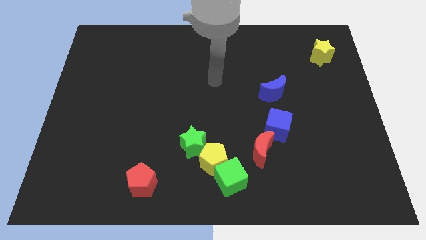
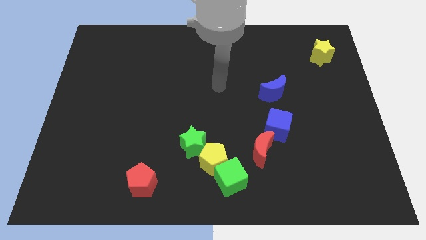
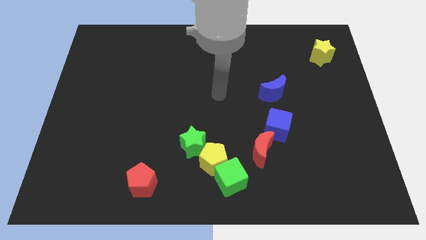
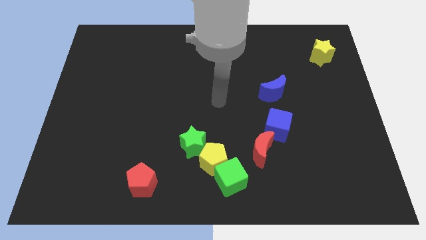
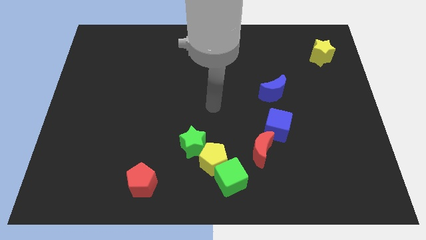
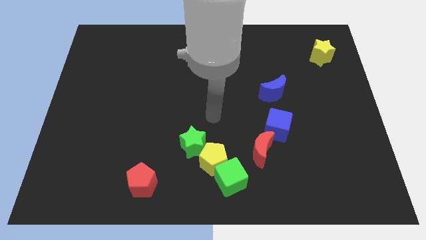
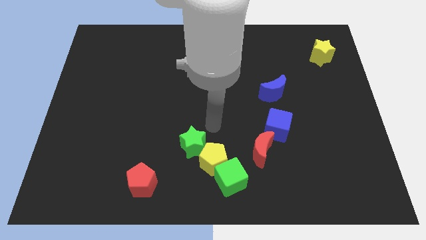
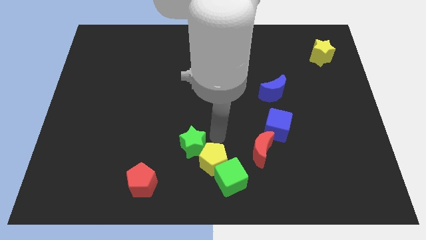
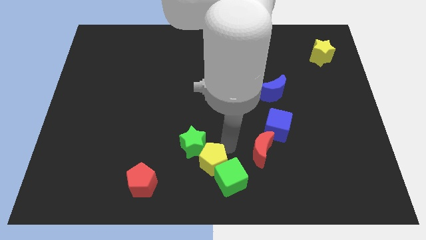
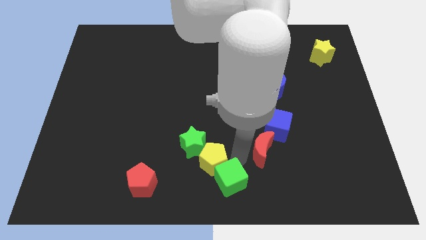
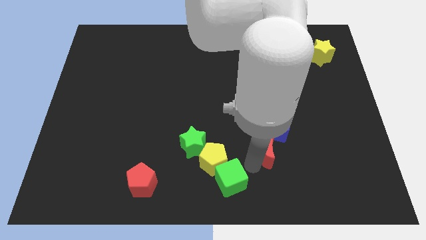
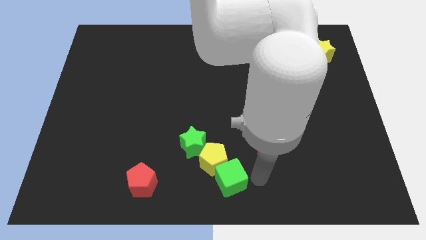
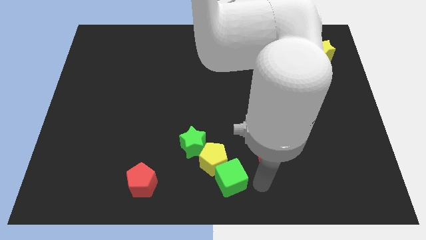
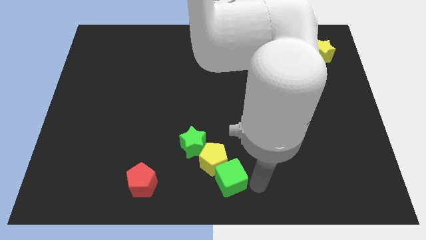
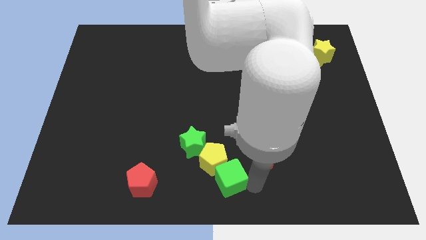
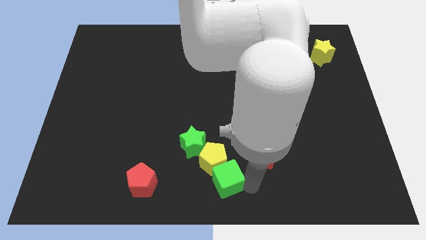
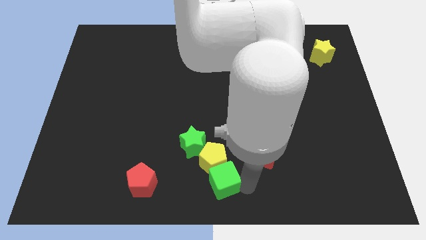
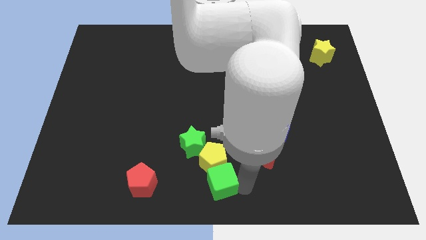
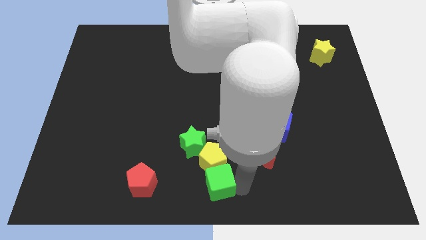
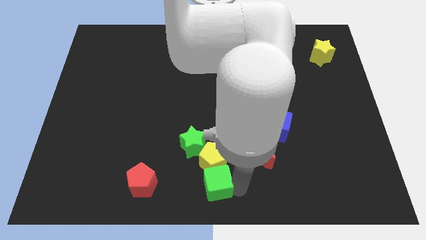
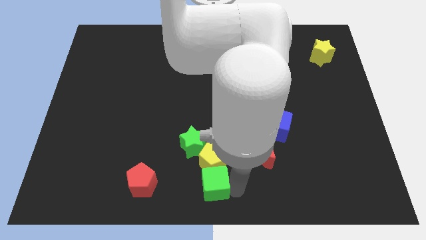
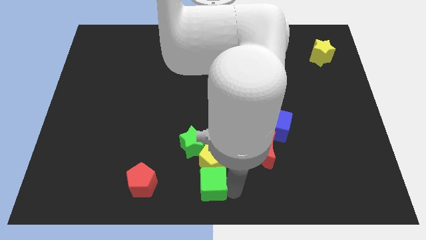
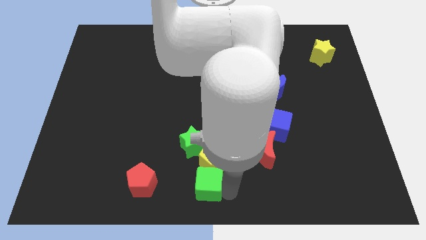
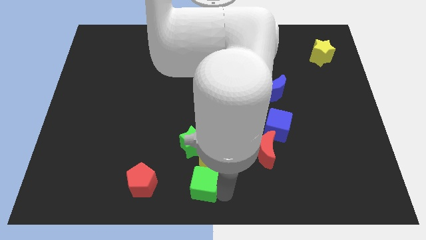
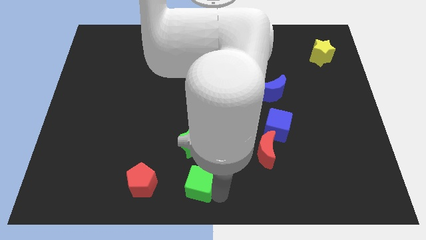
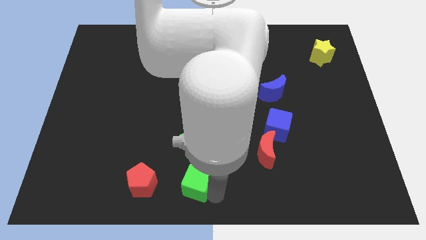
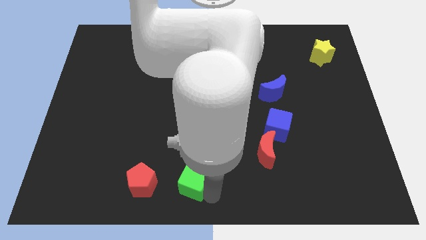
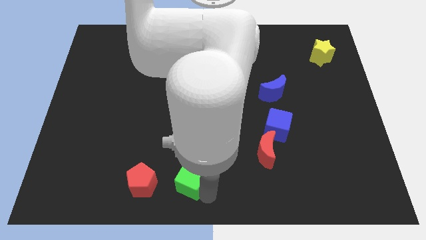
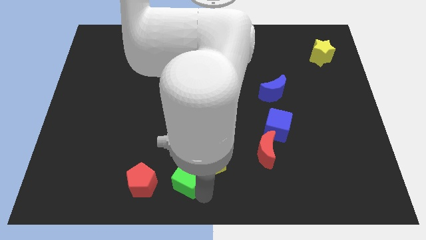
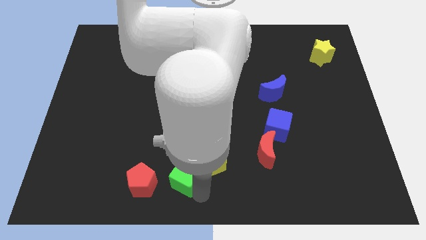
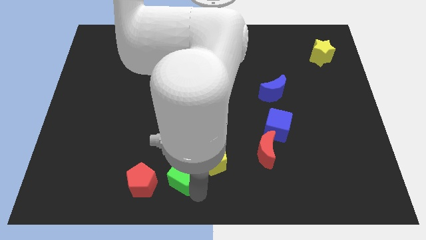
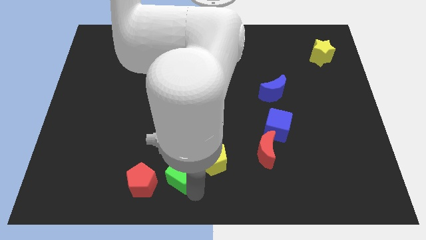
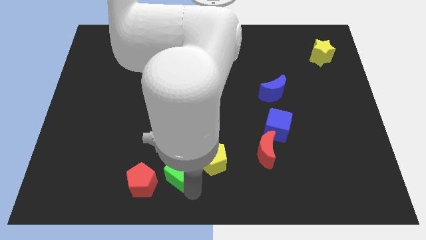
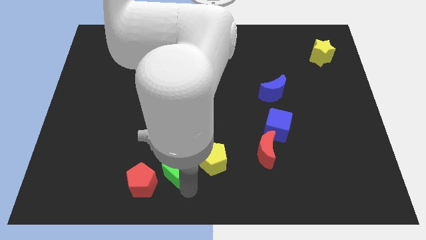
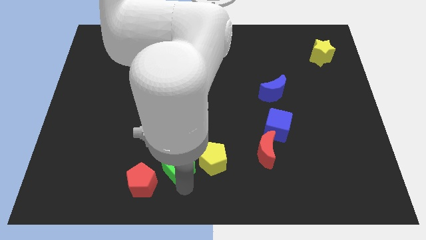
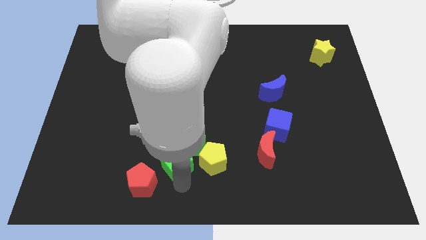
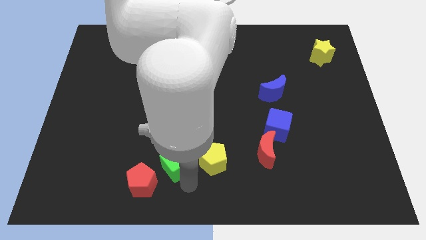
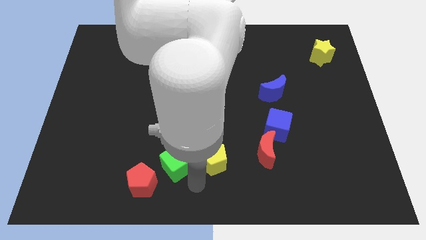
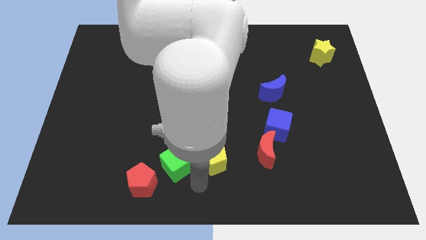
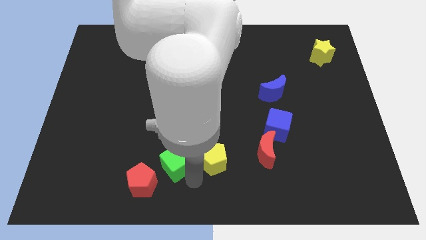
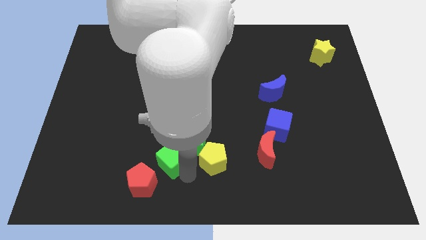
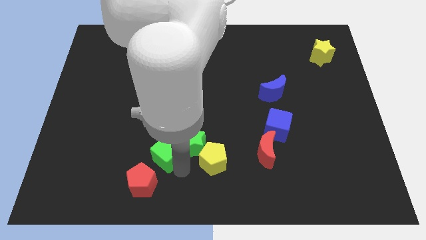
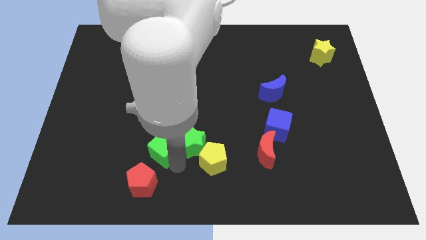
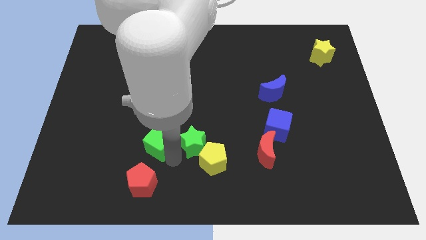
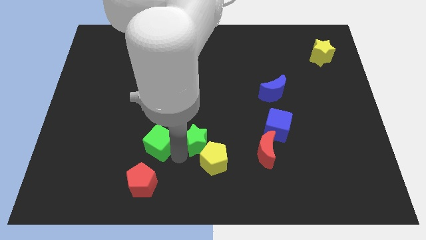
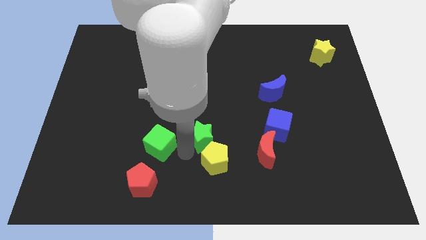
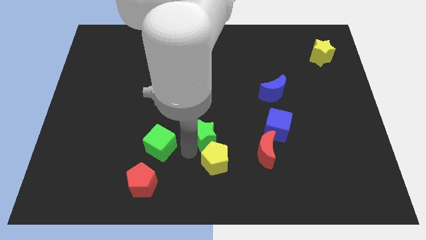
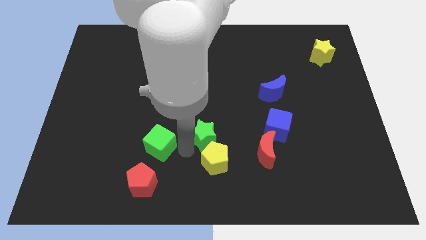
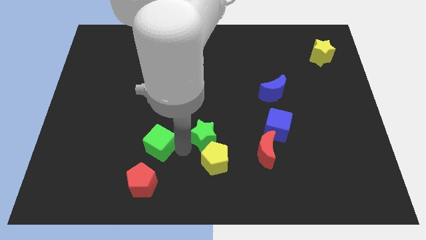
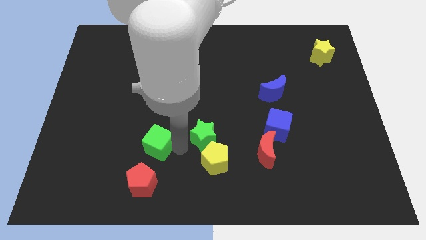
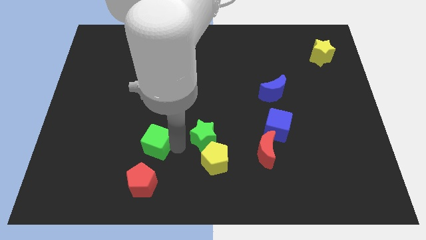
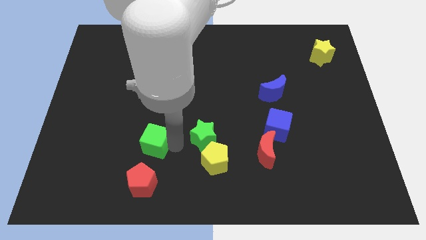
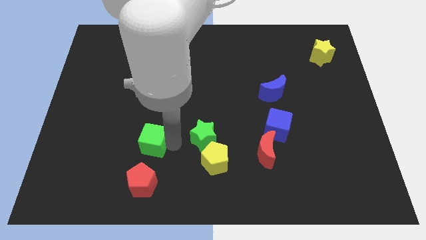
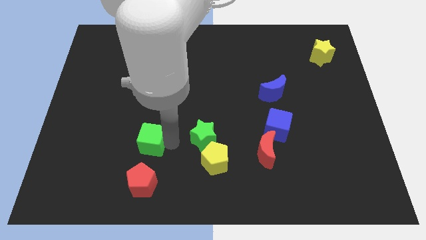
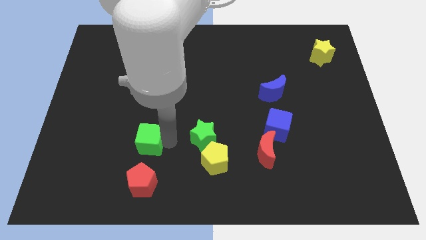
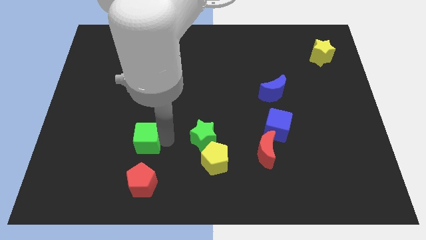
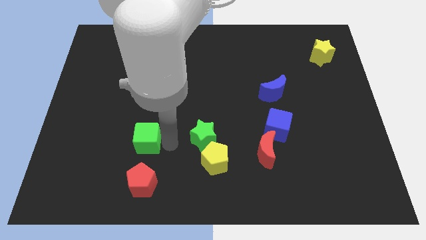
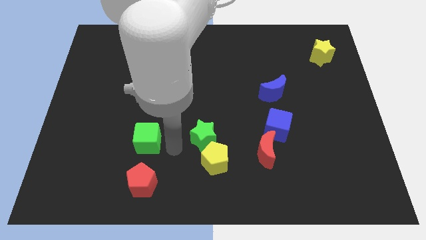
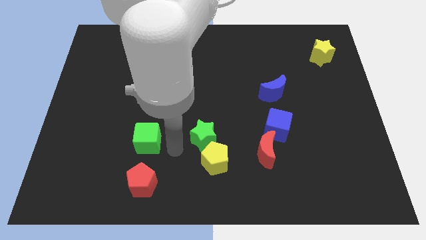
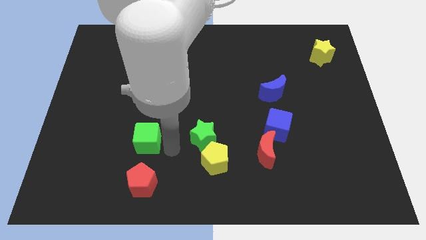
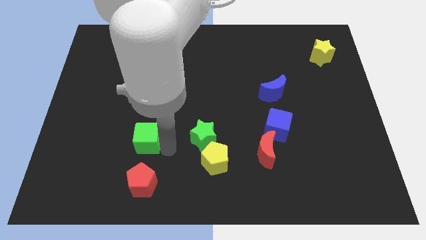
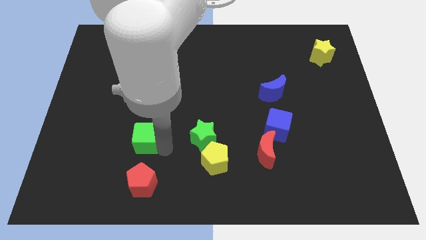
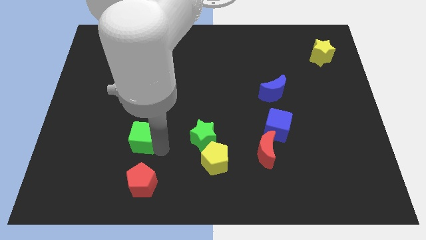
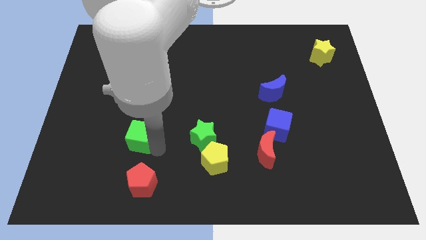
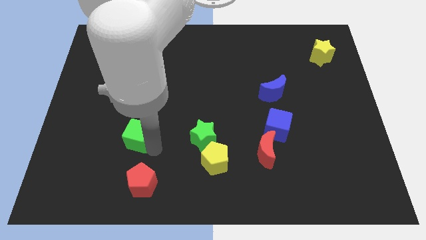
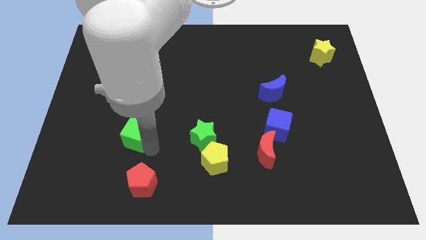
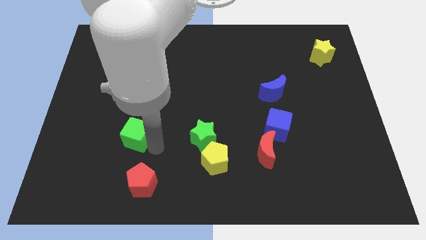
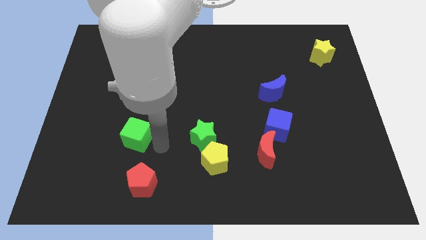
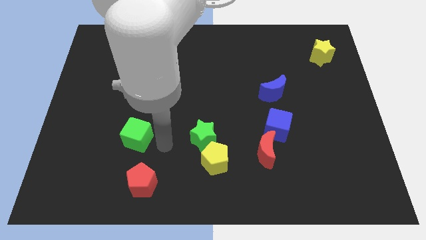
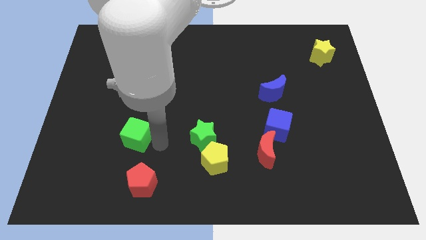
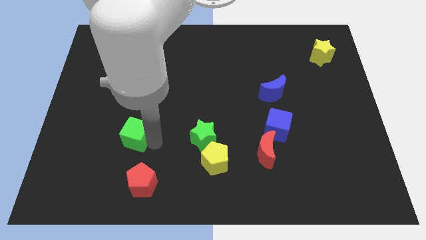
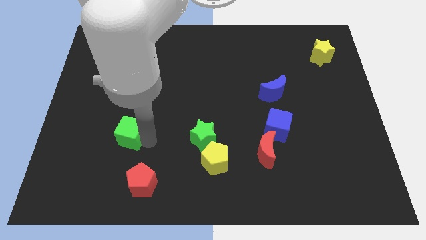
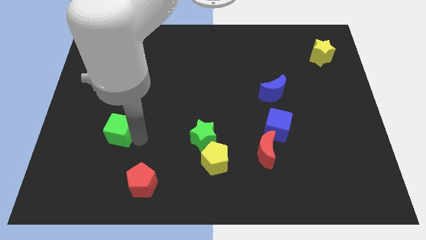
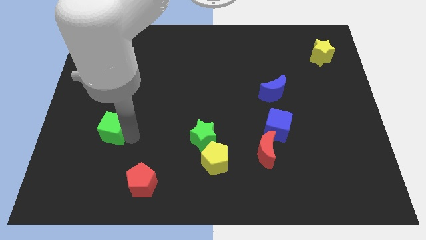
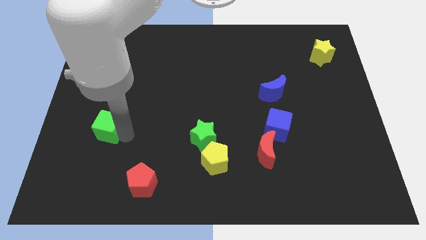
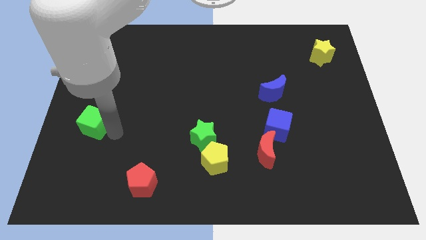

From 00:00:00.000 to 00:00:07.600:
slide the green cube to the center left
